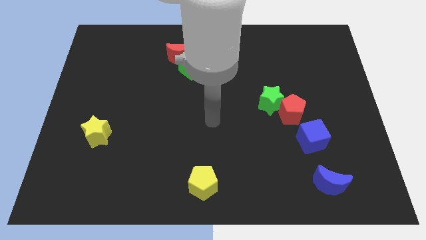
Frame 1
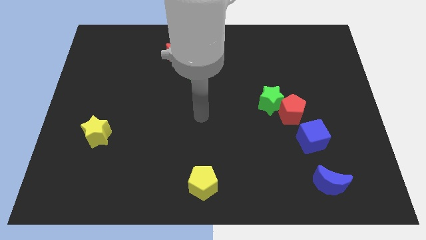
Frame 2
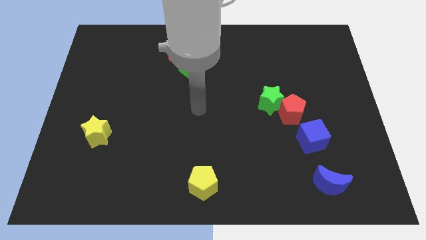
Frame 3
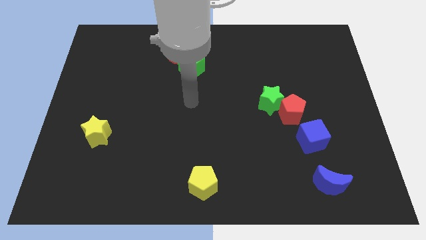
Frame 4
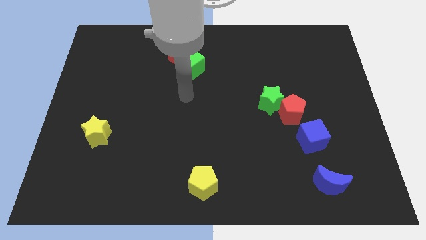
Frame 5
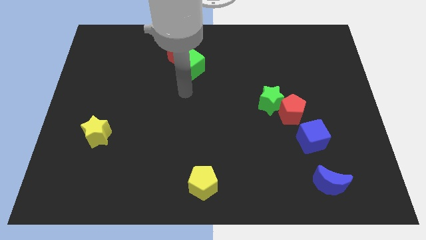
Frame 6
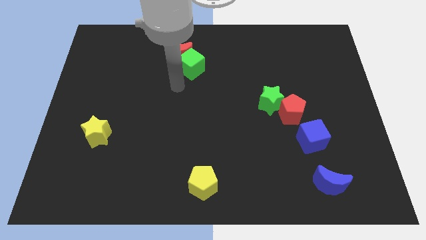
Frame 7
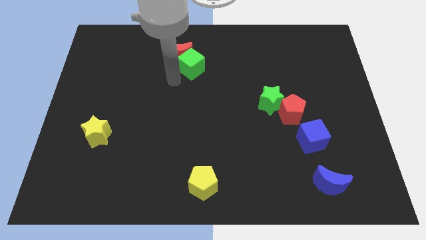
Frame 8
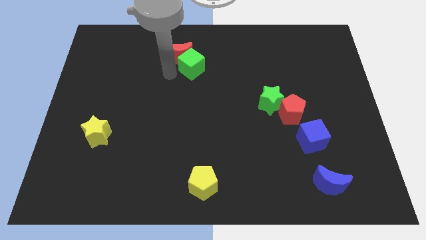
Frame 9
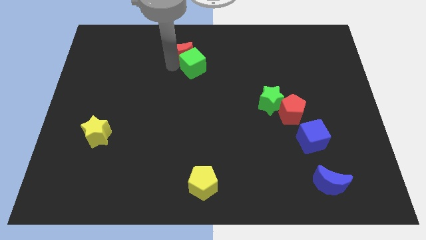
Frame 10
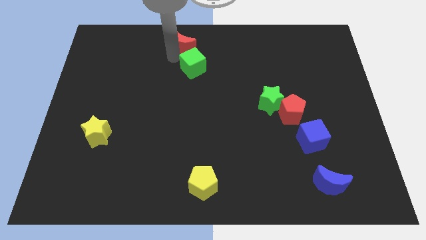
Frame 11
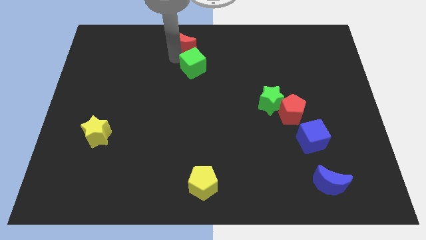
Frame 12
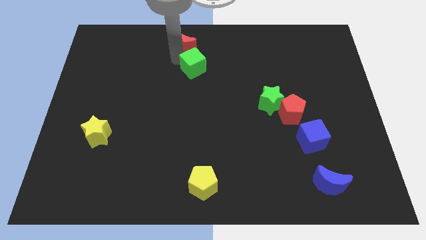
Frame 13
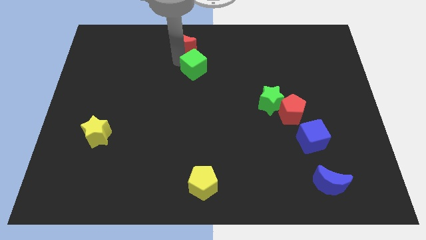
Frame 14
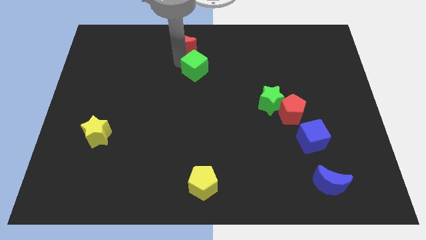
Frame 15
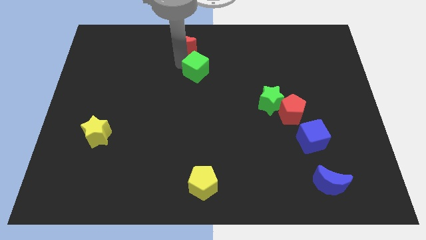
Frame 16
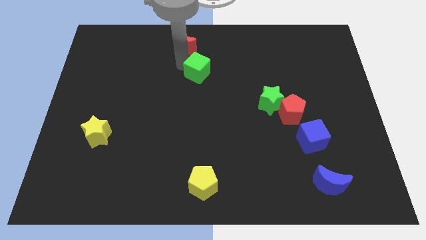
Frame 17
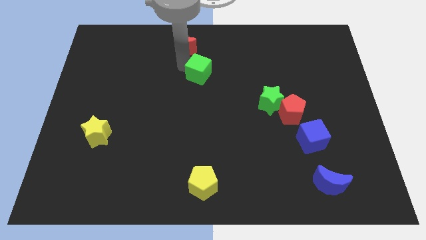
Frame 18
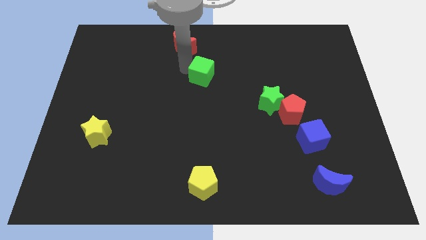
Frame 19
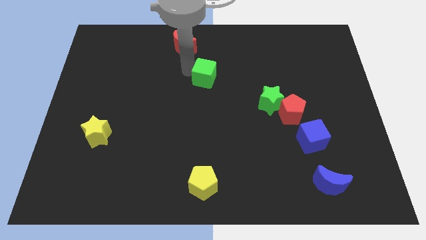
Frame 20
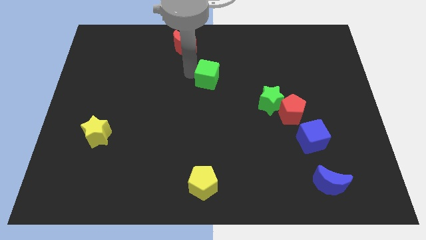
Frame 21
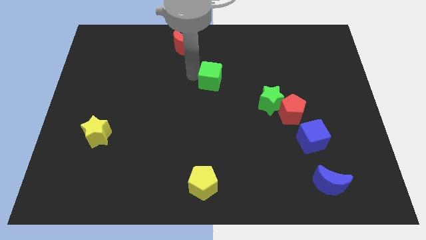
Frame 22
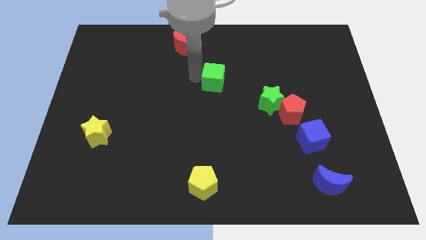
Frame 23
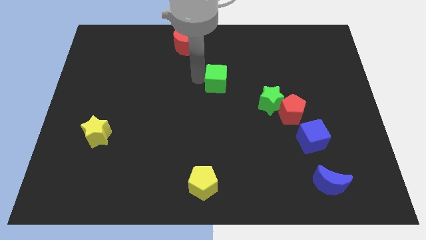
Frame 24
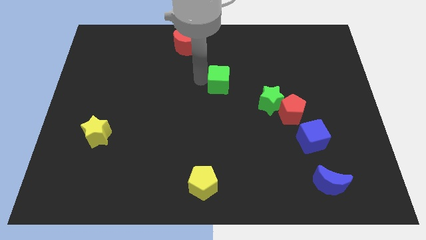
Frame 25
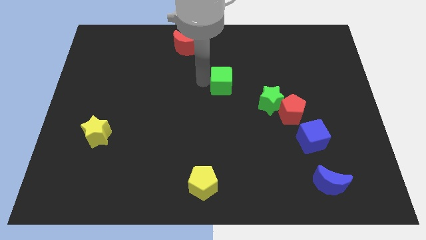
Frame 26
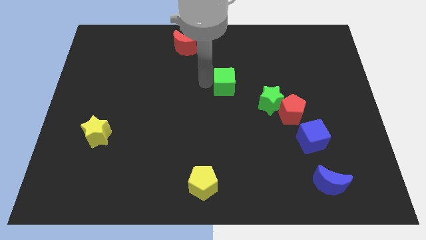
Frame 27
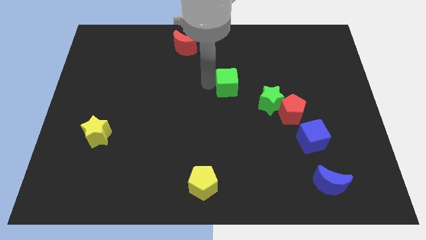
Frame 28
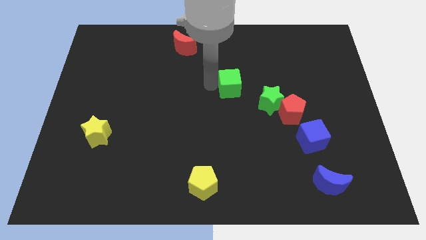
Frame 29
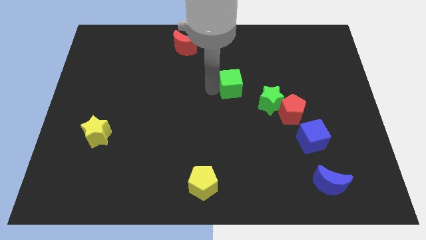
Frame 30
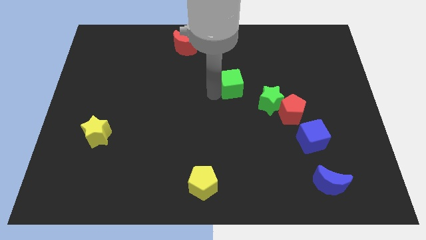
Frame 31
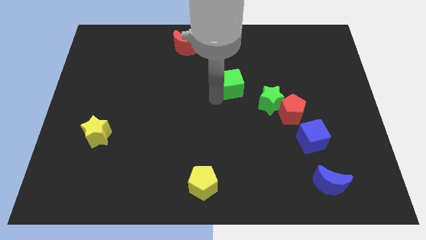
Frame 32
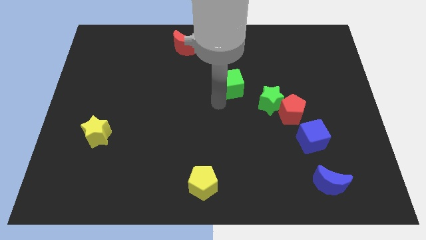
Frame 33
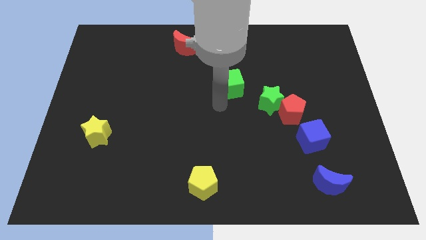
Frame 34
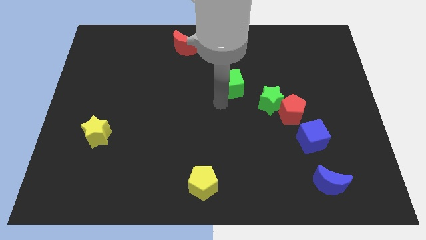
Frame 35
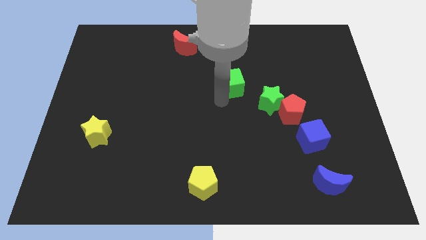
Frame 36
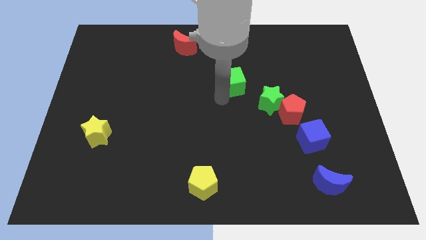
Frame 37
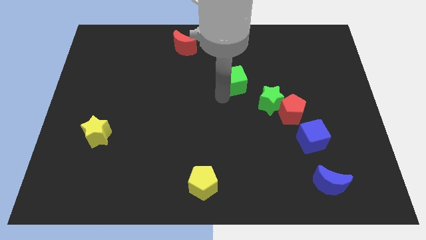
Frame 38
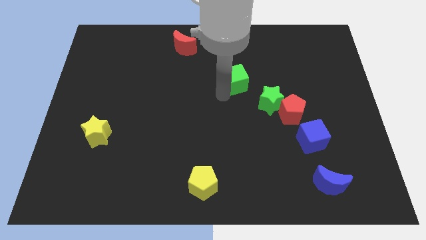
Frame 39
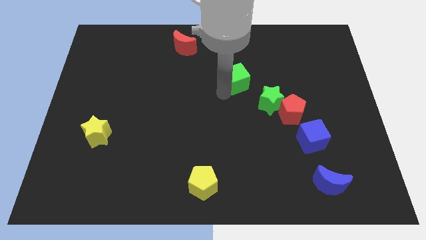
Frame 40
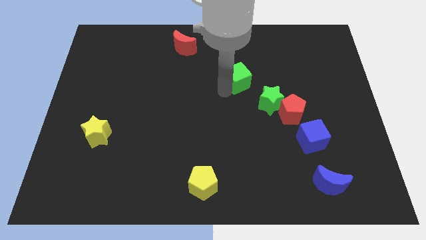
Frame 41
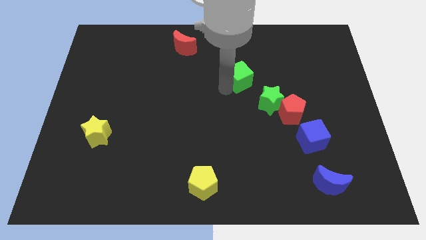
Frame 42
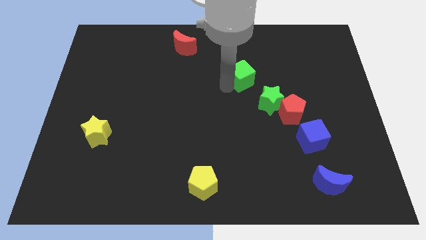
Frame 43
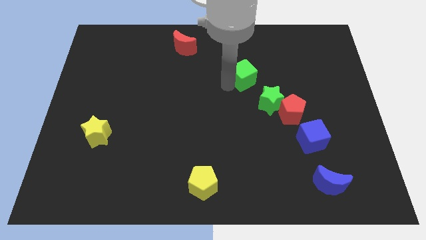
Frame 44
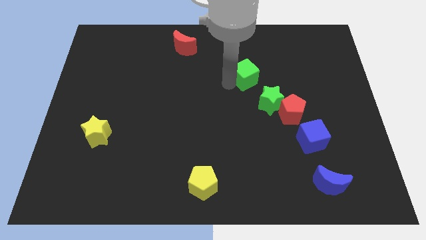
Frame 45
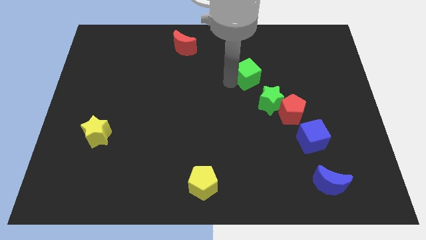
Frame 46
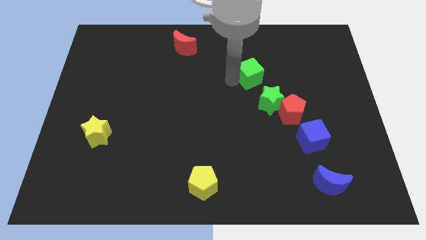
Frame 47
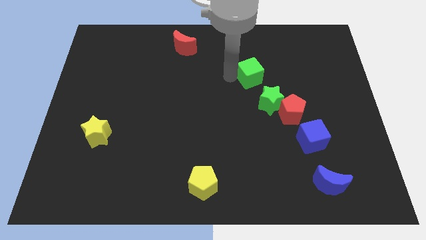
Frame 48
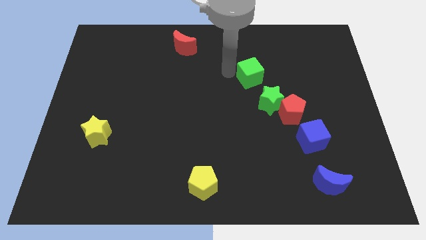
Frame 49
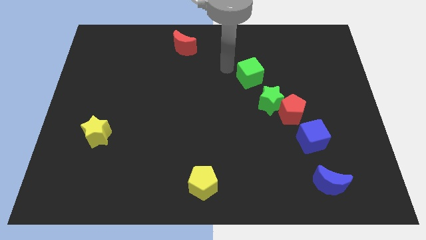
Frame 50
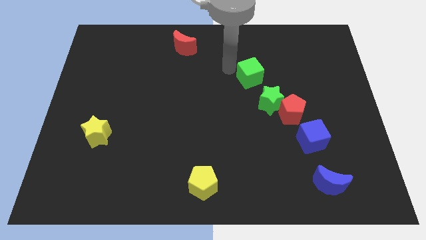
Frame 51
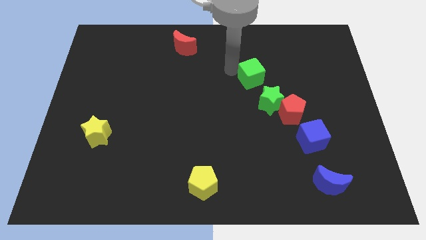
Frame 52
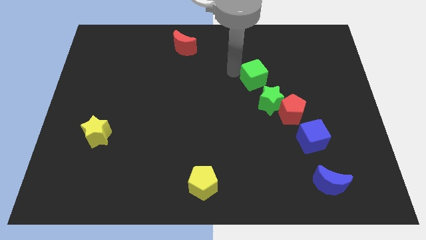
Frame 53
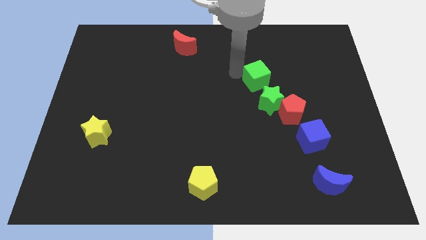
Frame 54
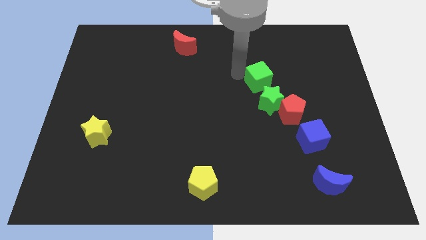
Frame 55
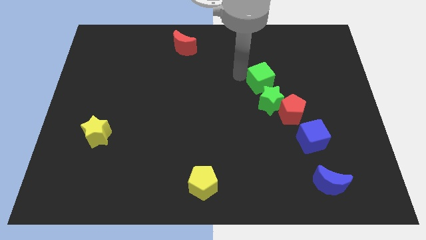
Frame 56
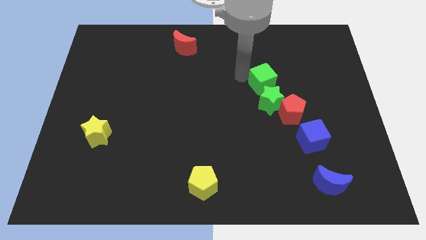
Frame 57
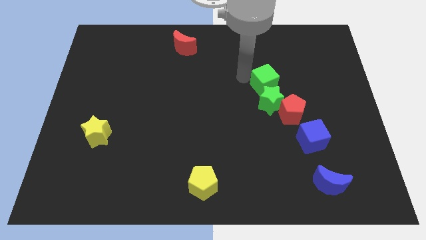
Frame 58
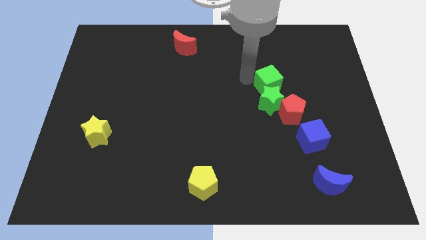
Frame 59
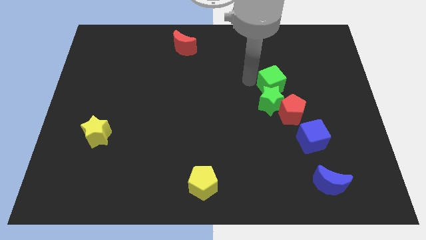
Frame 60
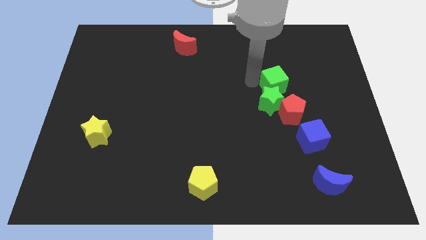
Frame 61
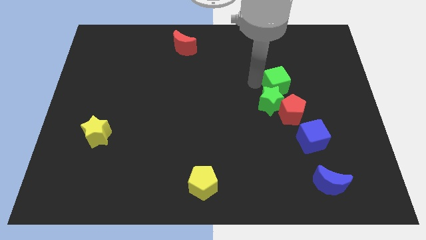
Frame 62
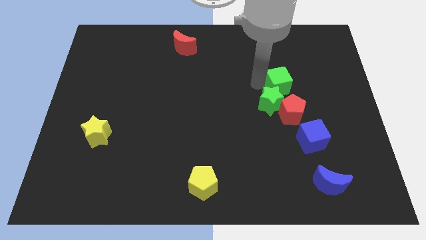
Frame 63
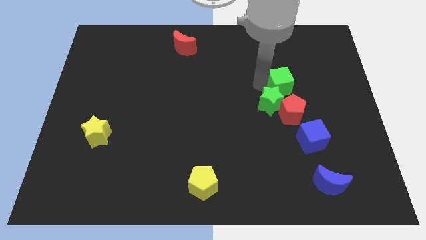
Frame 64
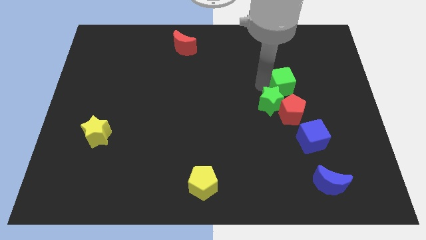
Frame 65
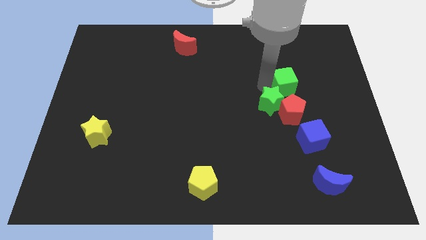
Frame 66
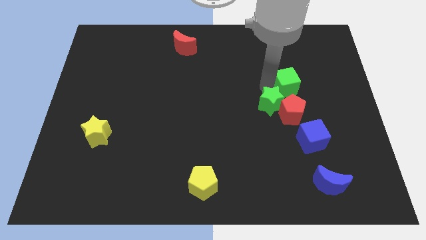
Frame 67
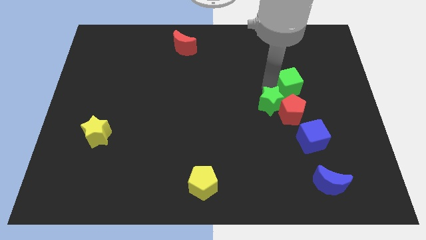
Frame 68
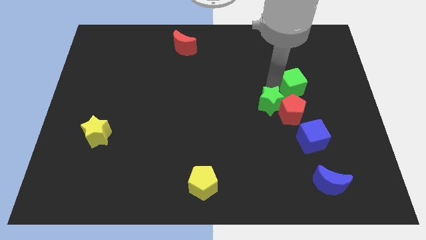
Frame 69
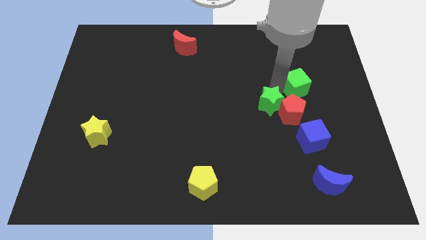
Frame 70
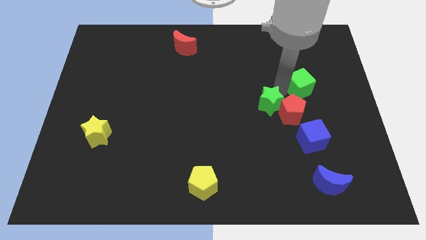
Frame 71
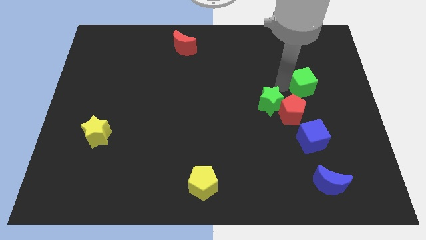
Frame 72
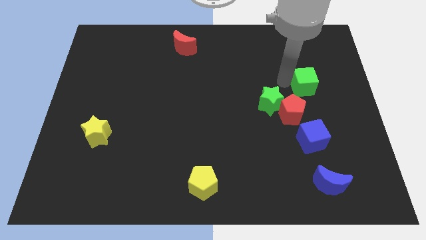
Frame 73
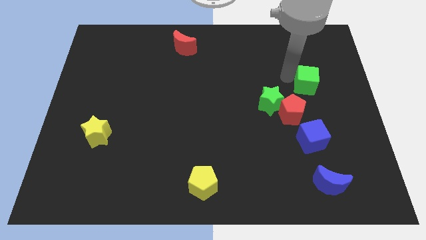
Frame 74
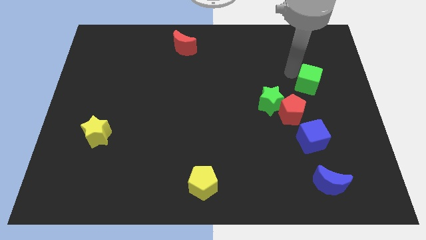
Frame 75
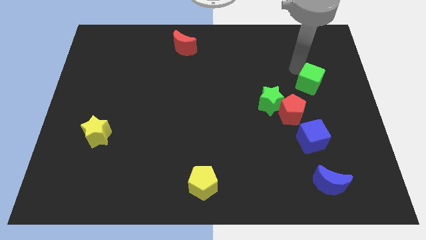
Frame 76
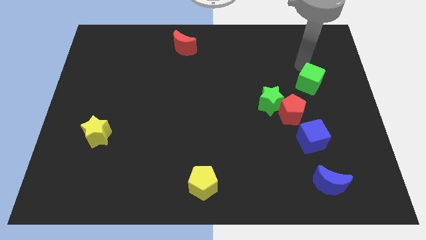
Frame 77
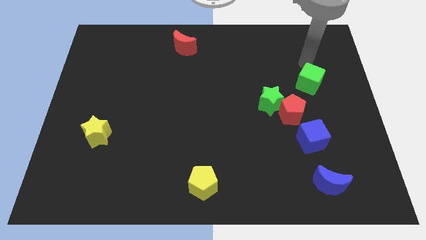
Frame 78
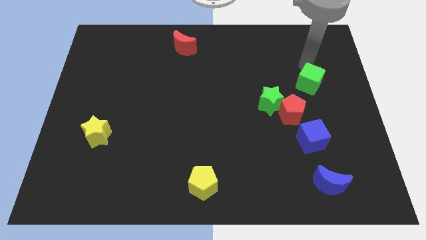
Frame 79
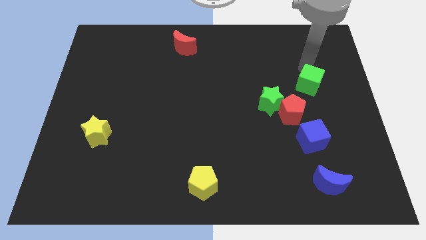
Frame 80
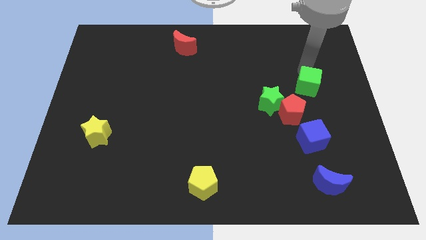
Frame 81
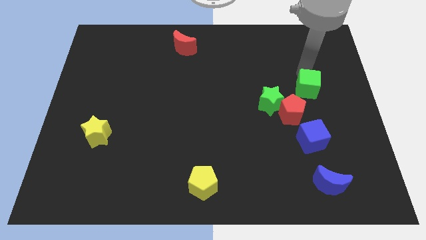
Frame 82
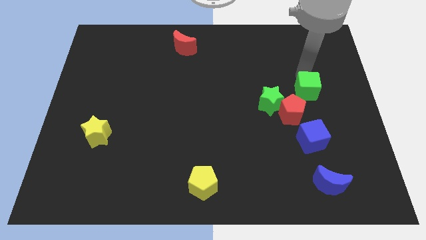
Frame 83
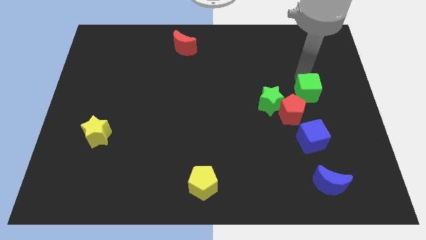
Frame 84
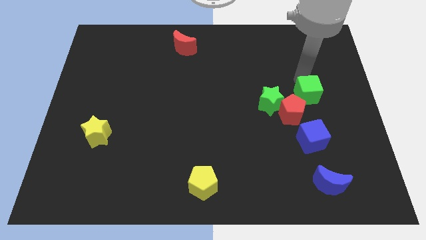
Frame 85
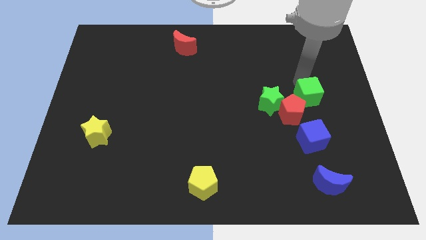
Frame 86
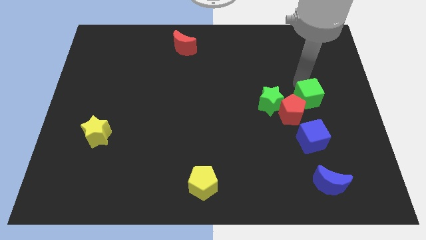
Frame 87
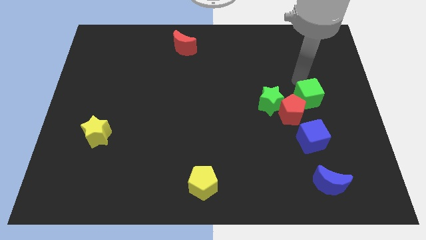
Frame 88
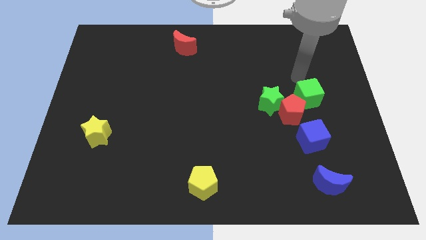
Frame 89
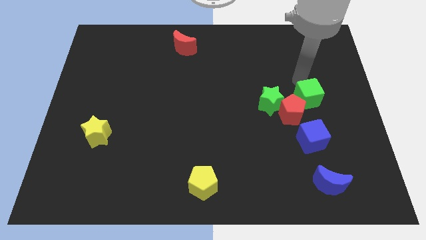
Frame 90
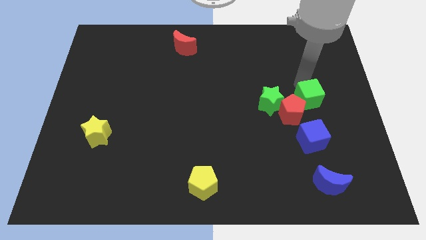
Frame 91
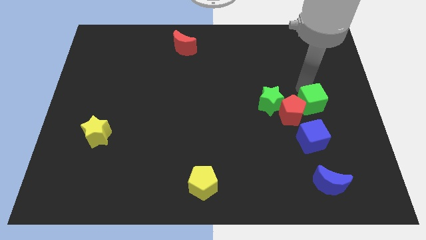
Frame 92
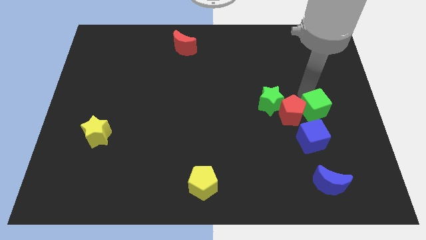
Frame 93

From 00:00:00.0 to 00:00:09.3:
put the green cube diagonally up and to the right of the blue cube
